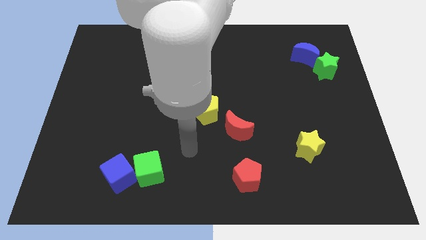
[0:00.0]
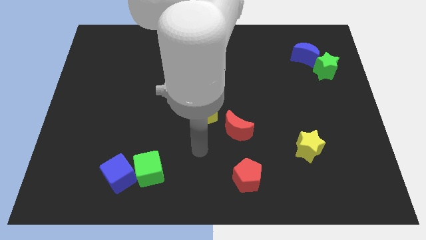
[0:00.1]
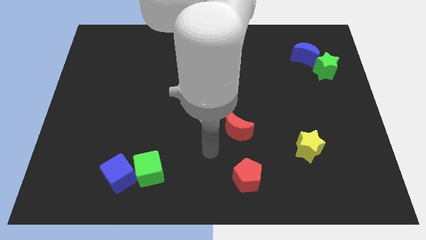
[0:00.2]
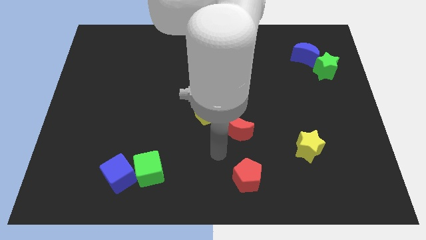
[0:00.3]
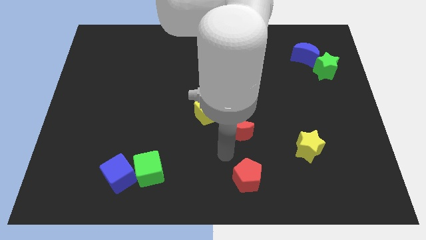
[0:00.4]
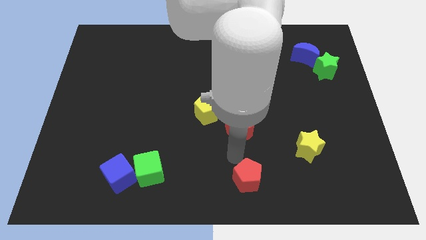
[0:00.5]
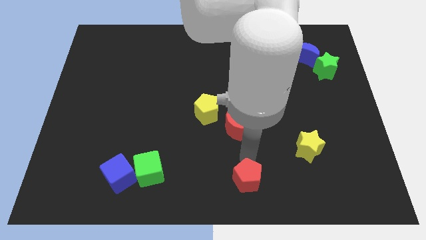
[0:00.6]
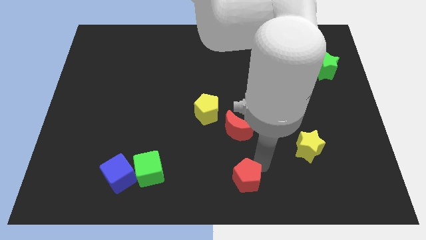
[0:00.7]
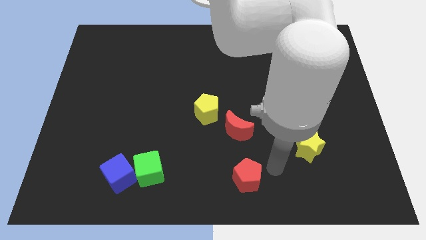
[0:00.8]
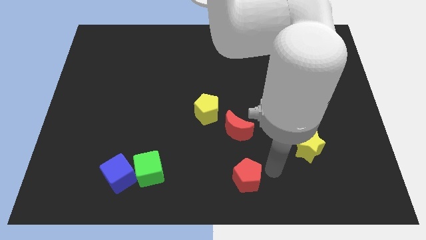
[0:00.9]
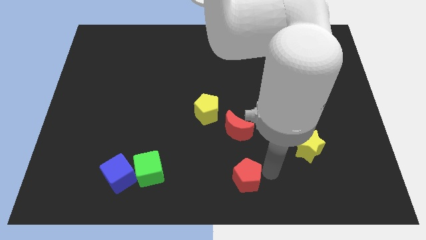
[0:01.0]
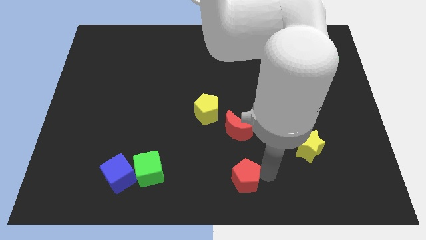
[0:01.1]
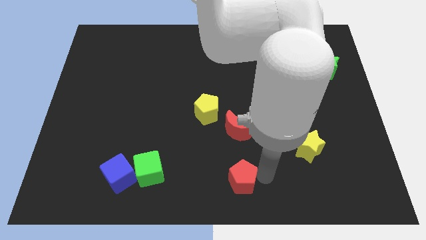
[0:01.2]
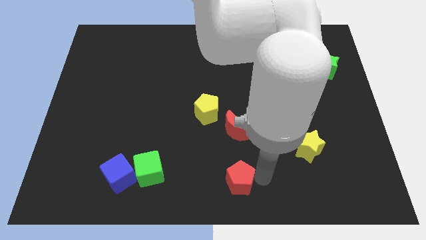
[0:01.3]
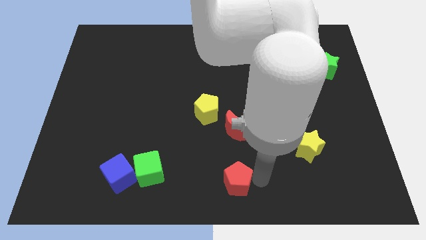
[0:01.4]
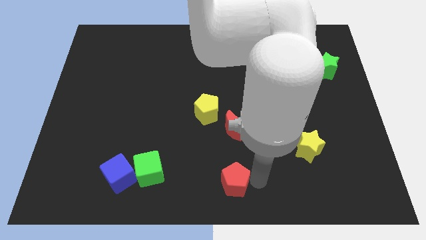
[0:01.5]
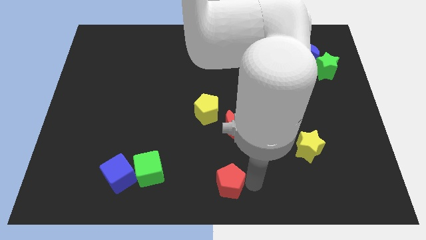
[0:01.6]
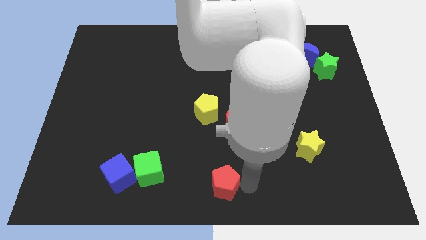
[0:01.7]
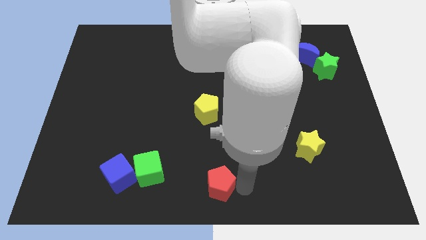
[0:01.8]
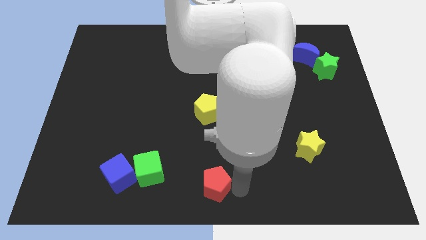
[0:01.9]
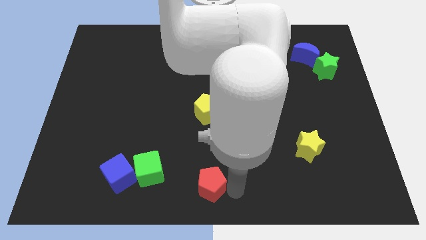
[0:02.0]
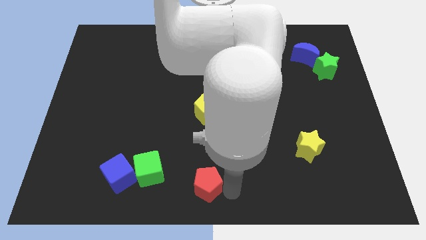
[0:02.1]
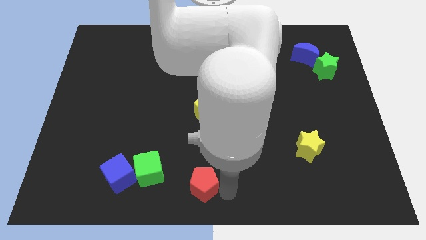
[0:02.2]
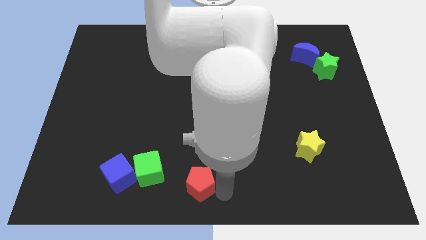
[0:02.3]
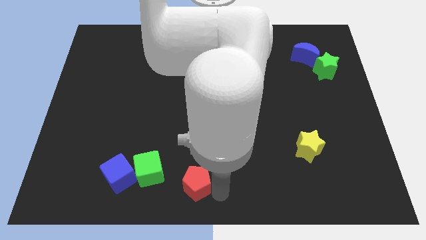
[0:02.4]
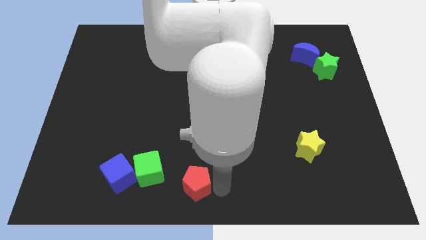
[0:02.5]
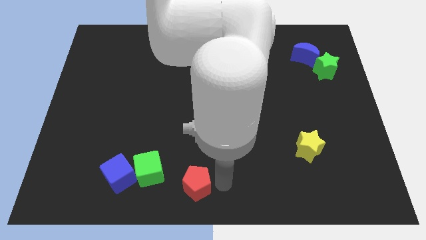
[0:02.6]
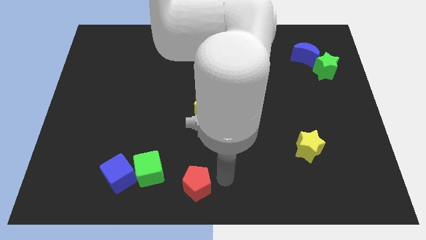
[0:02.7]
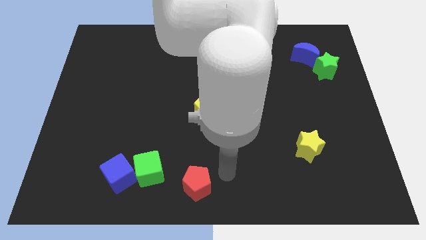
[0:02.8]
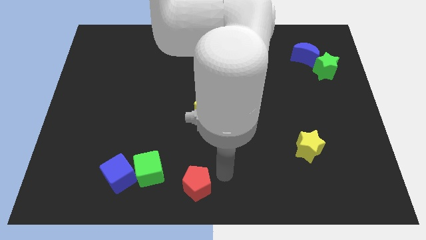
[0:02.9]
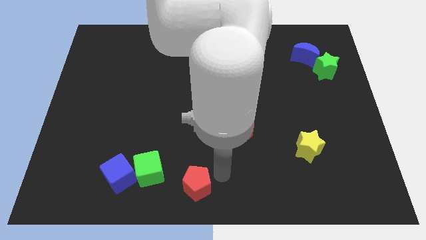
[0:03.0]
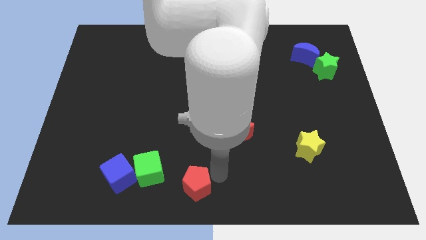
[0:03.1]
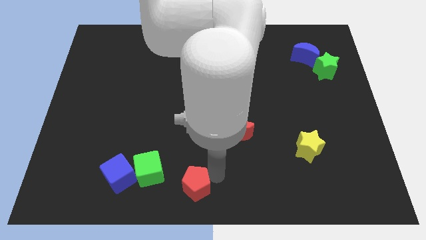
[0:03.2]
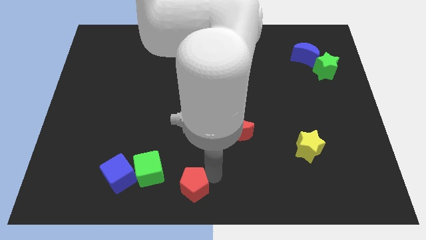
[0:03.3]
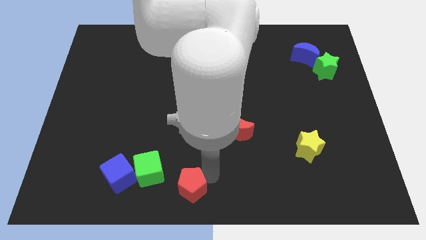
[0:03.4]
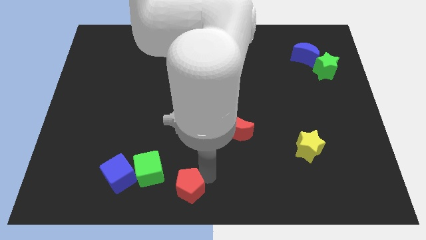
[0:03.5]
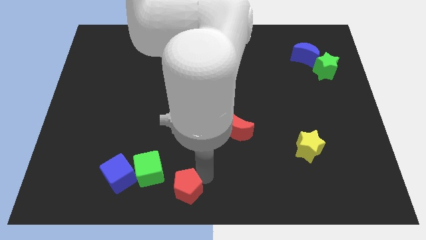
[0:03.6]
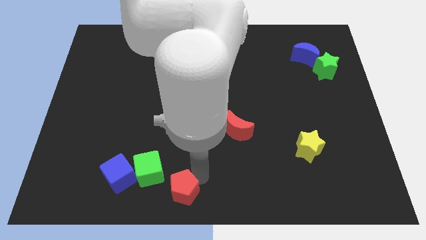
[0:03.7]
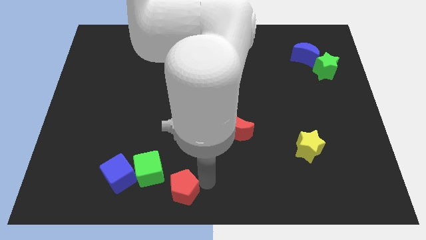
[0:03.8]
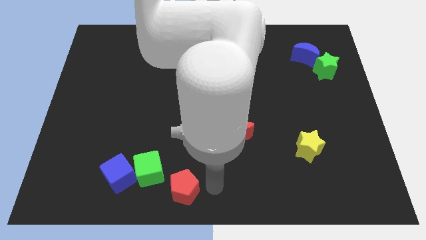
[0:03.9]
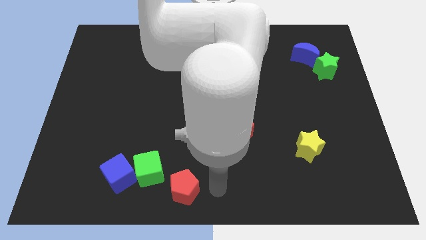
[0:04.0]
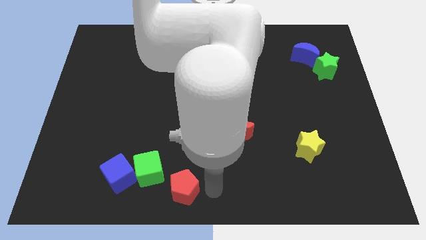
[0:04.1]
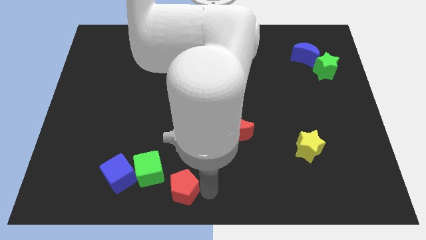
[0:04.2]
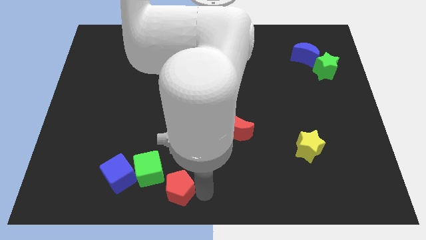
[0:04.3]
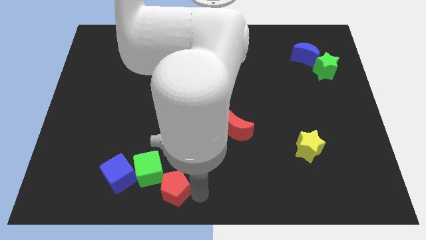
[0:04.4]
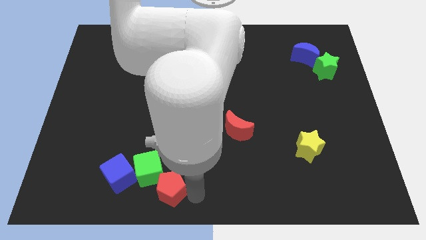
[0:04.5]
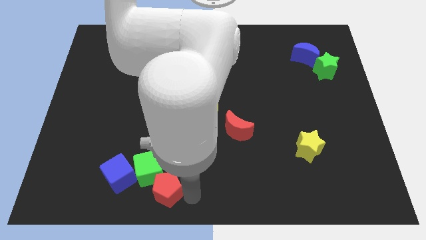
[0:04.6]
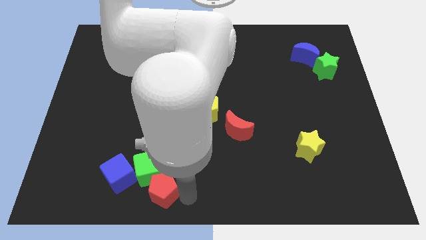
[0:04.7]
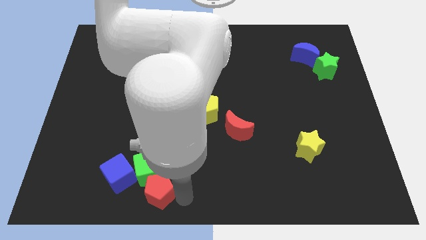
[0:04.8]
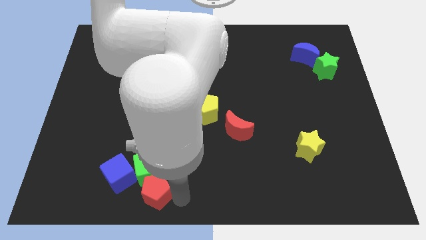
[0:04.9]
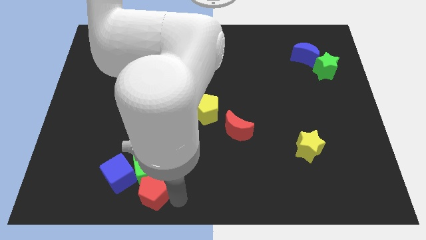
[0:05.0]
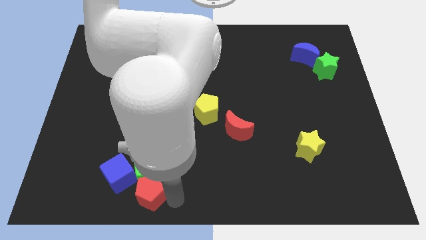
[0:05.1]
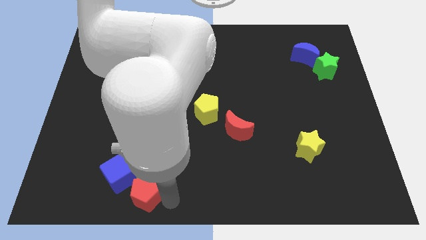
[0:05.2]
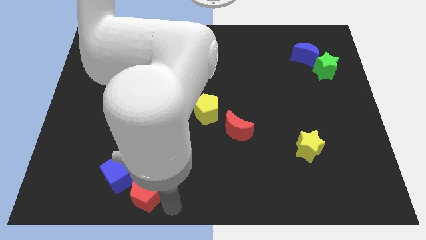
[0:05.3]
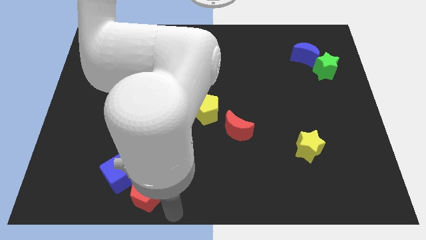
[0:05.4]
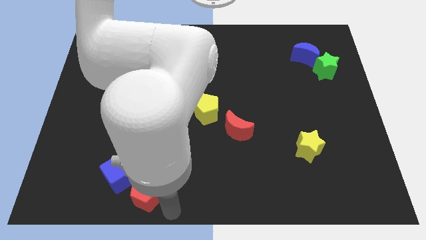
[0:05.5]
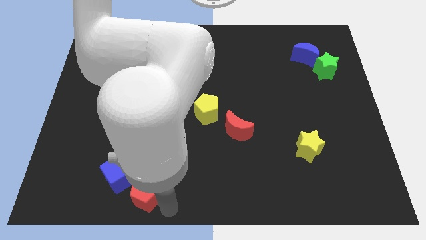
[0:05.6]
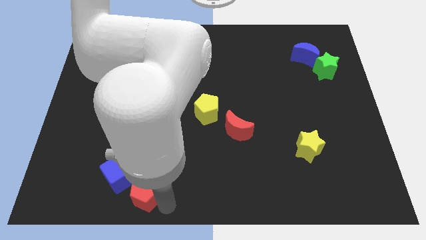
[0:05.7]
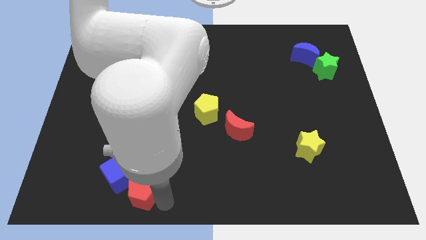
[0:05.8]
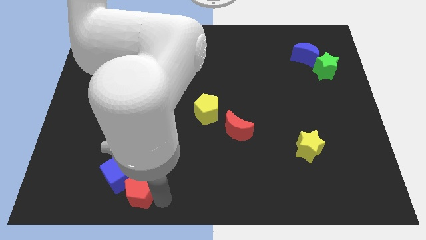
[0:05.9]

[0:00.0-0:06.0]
slide the red pentagon next to the blue cube

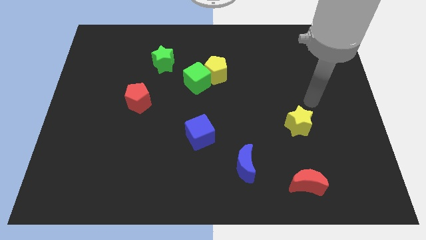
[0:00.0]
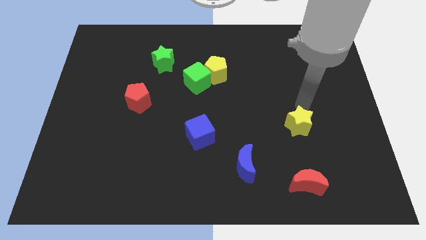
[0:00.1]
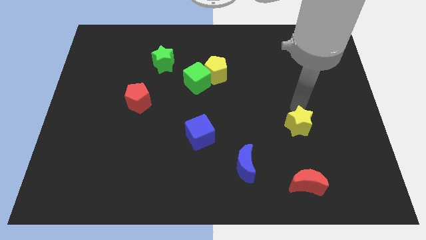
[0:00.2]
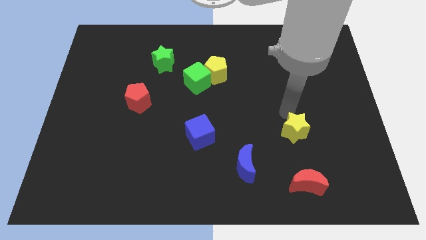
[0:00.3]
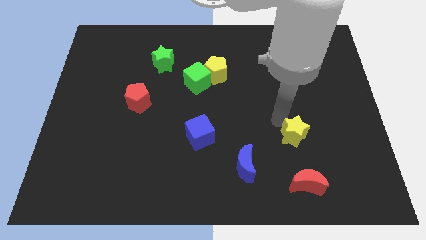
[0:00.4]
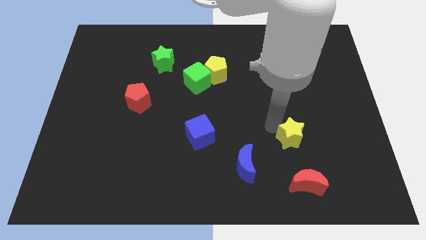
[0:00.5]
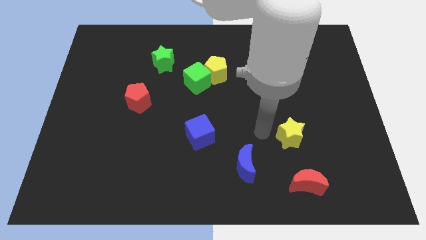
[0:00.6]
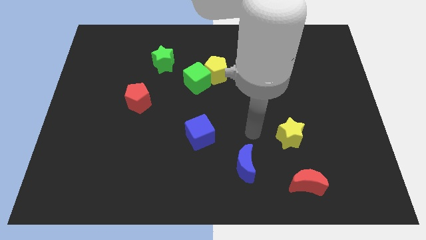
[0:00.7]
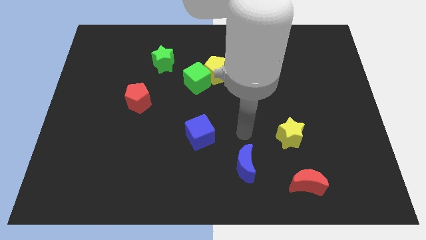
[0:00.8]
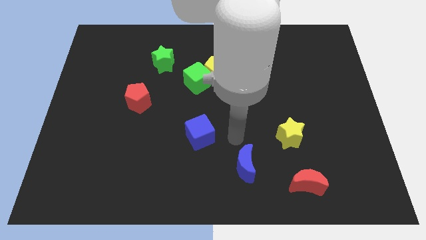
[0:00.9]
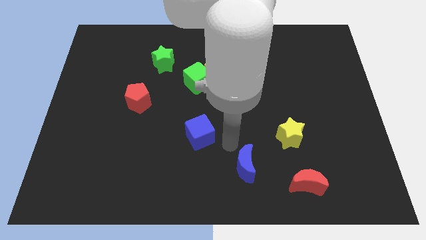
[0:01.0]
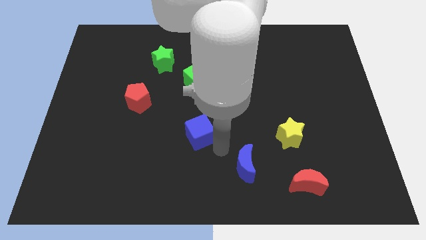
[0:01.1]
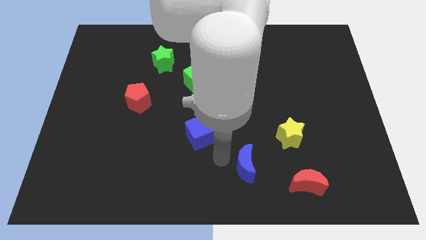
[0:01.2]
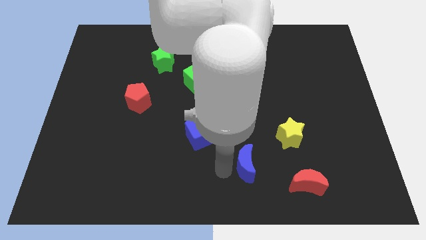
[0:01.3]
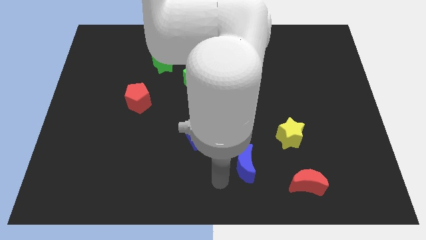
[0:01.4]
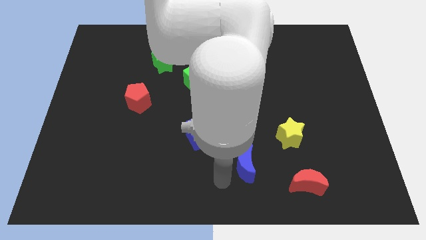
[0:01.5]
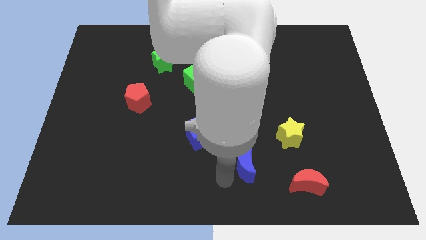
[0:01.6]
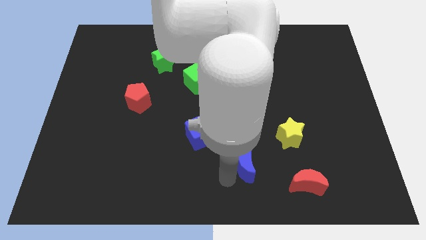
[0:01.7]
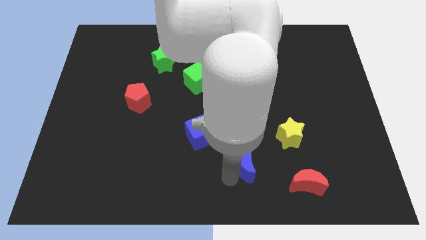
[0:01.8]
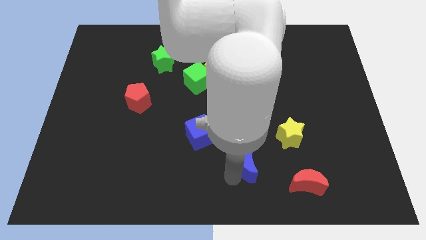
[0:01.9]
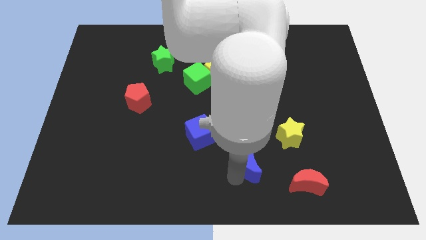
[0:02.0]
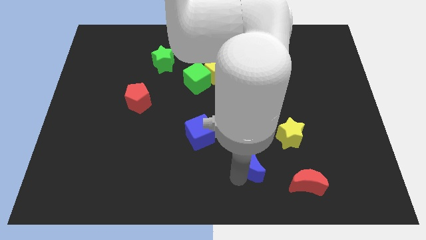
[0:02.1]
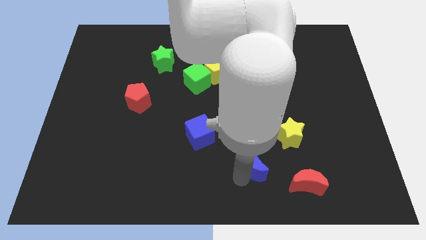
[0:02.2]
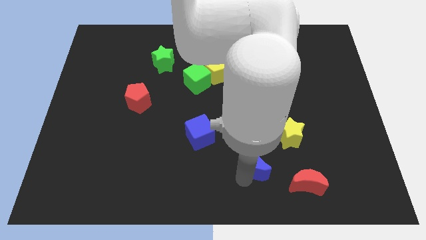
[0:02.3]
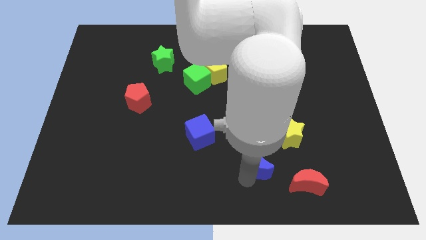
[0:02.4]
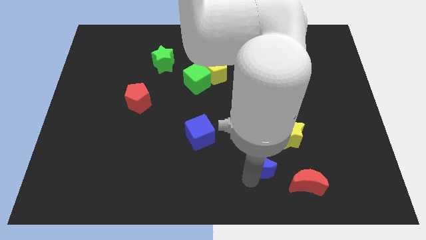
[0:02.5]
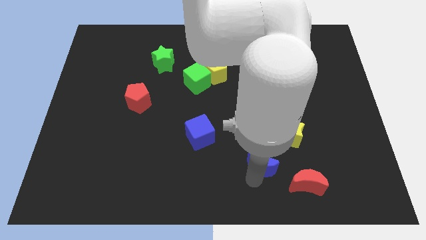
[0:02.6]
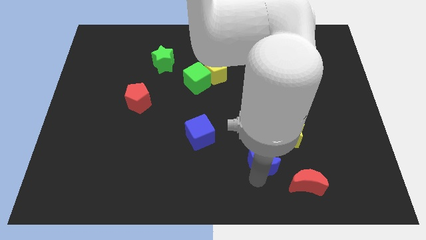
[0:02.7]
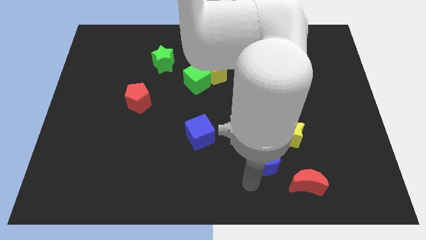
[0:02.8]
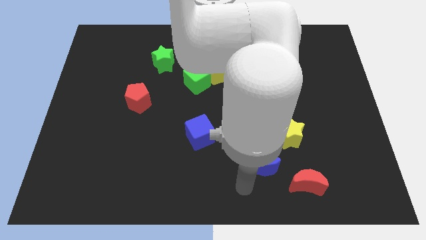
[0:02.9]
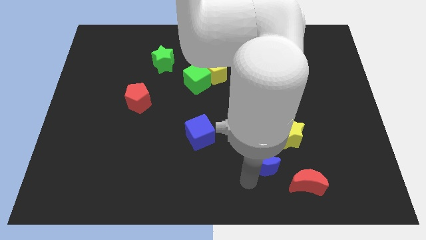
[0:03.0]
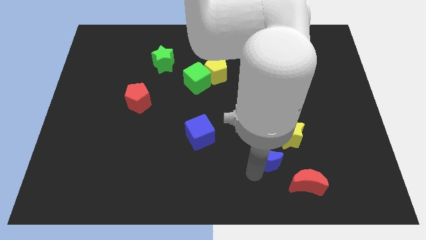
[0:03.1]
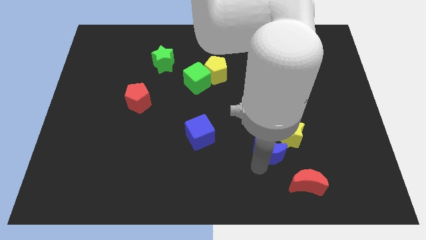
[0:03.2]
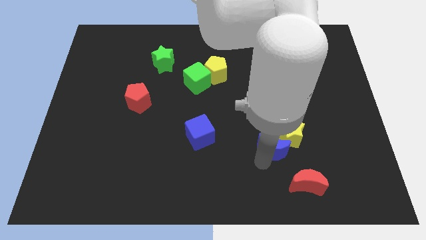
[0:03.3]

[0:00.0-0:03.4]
move the blue moon close to the yellow star
